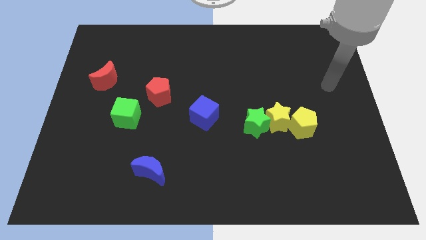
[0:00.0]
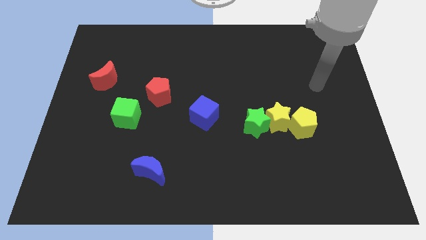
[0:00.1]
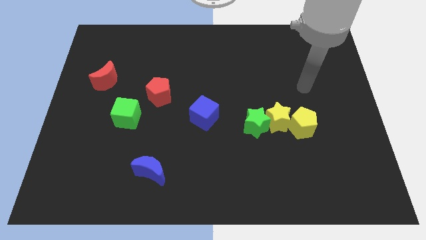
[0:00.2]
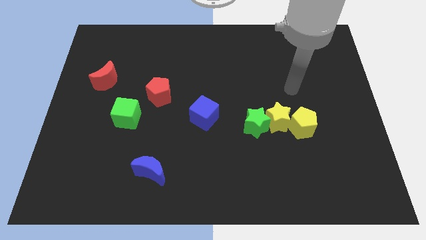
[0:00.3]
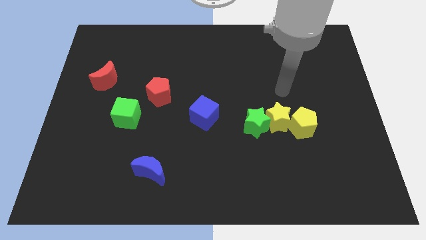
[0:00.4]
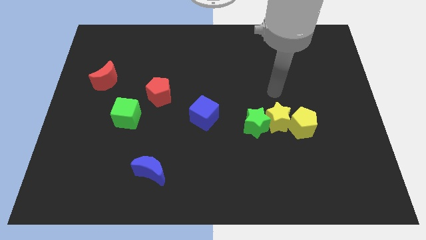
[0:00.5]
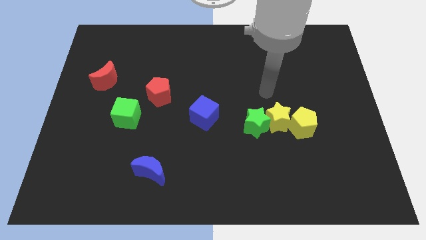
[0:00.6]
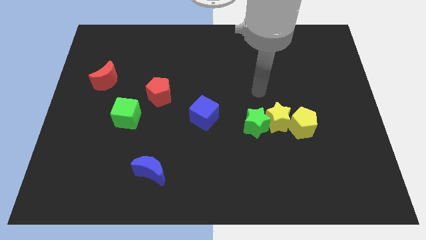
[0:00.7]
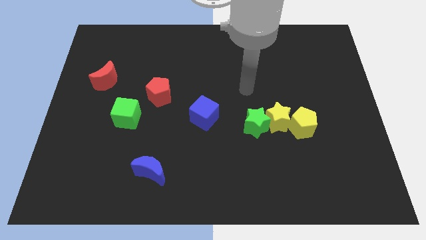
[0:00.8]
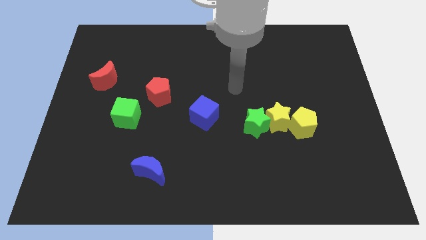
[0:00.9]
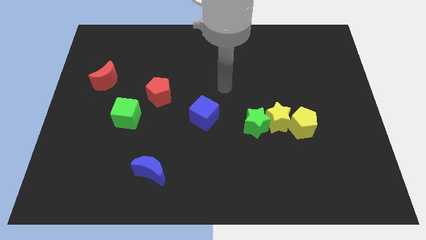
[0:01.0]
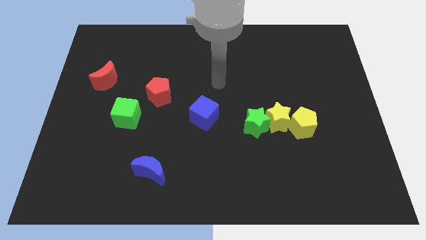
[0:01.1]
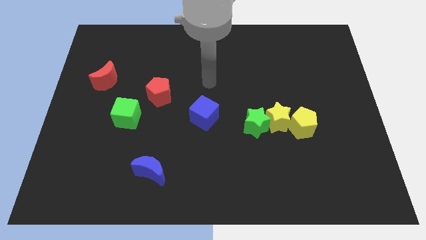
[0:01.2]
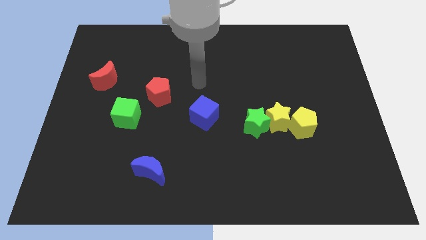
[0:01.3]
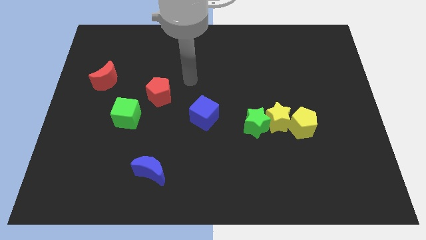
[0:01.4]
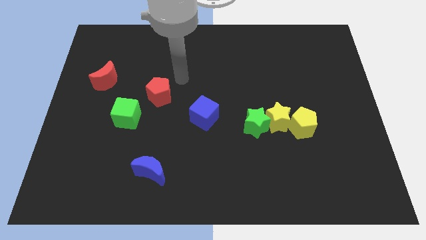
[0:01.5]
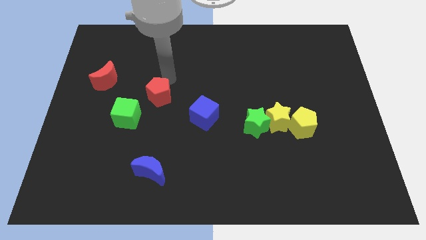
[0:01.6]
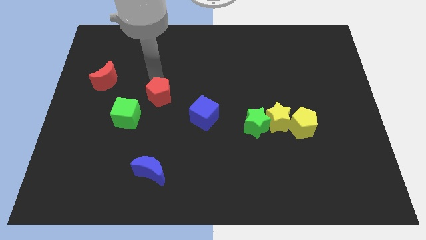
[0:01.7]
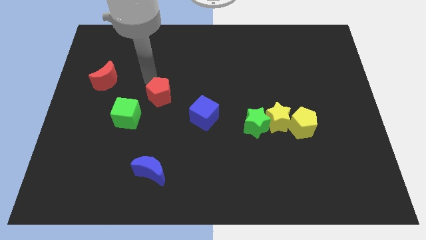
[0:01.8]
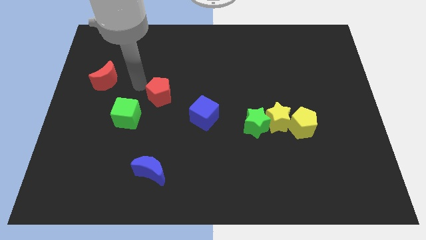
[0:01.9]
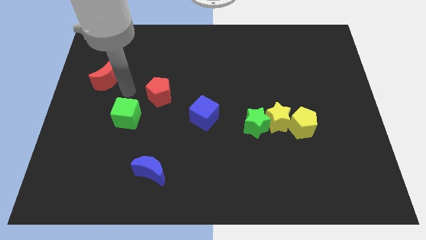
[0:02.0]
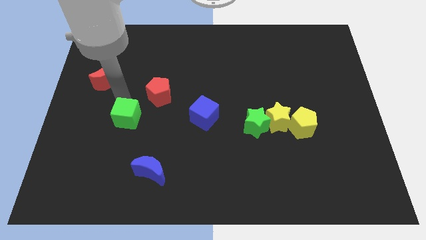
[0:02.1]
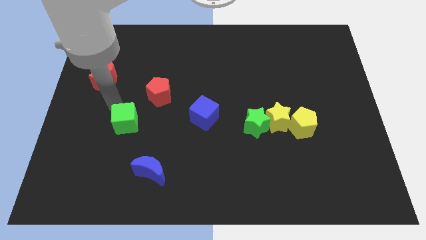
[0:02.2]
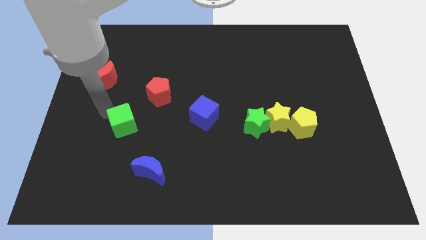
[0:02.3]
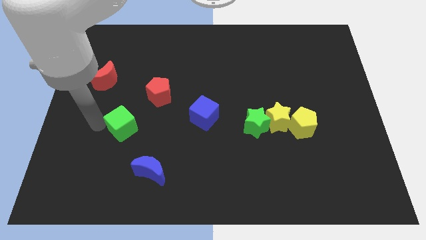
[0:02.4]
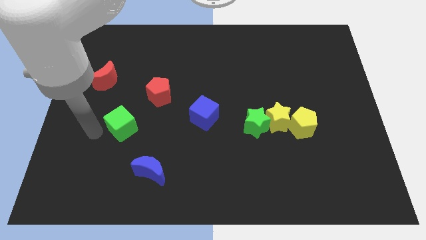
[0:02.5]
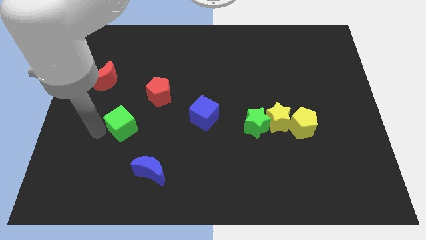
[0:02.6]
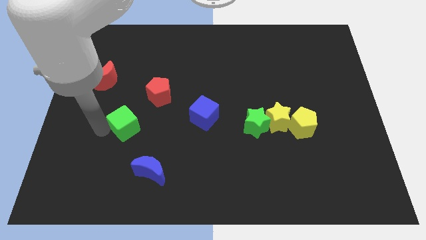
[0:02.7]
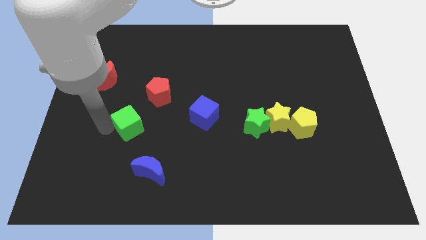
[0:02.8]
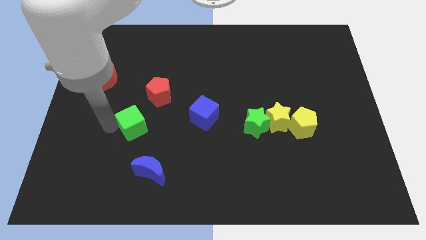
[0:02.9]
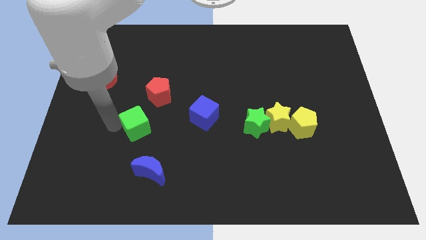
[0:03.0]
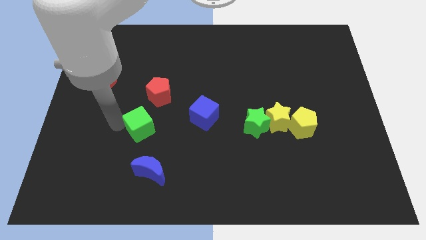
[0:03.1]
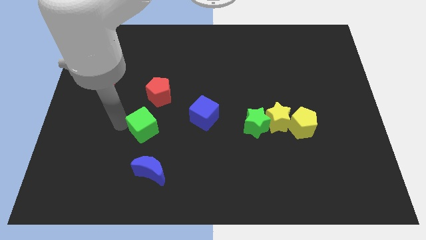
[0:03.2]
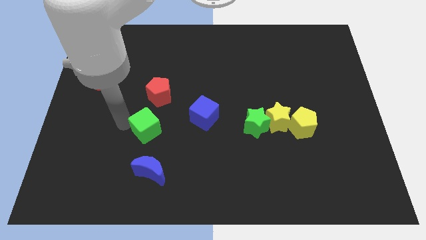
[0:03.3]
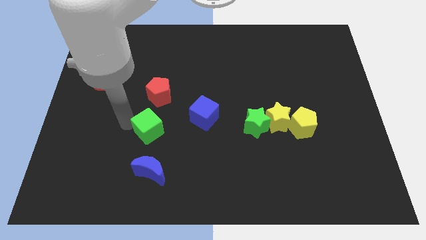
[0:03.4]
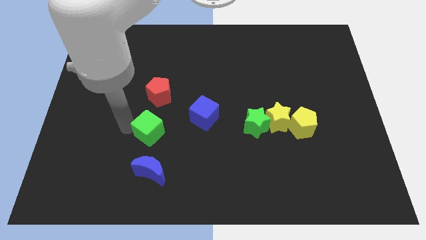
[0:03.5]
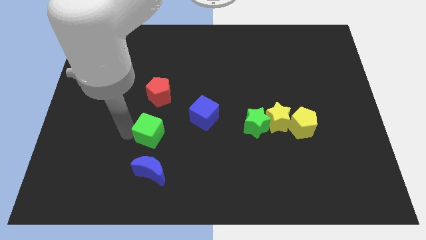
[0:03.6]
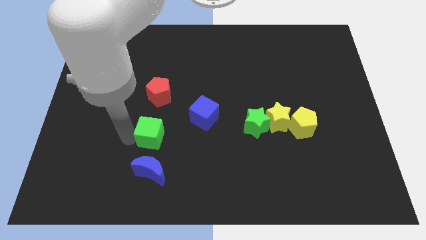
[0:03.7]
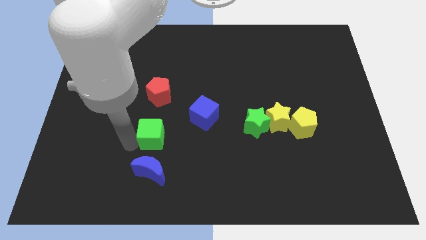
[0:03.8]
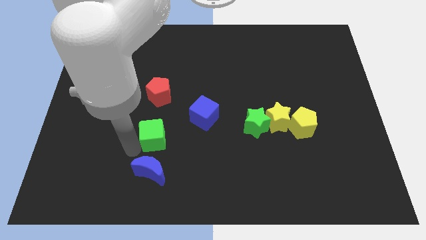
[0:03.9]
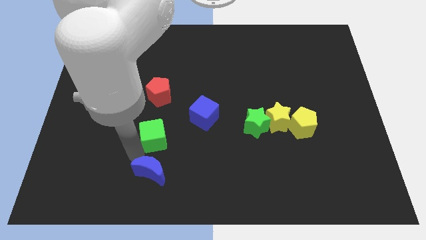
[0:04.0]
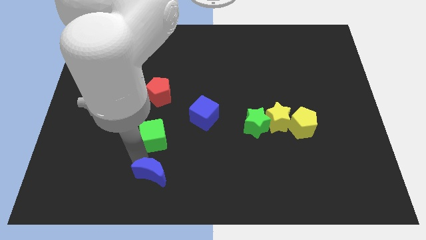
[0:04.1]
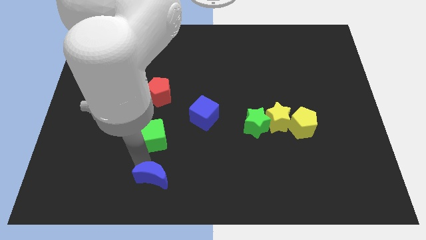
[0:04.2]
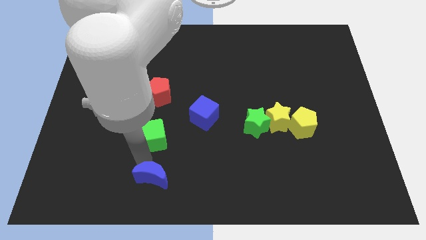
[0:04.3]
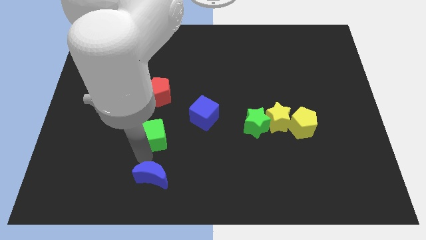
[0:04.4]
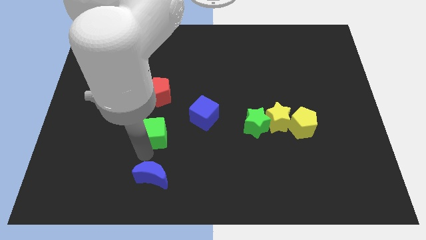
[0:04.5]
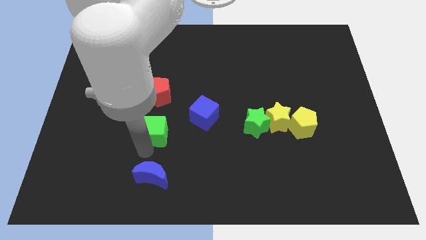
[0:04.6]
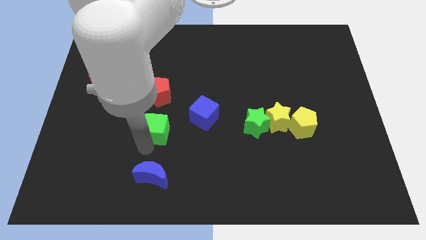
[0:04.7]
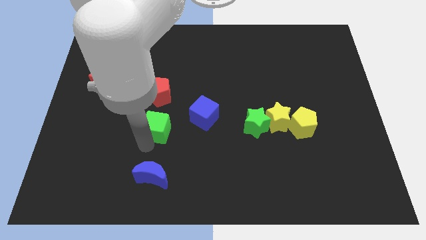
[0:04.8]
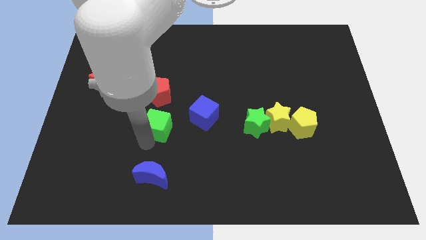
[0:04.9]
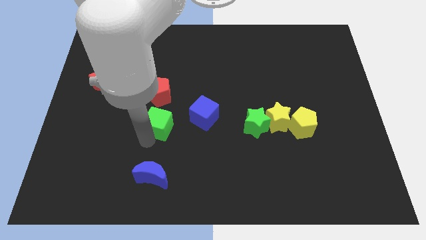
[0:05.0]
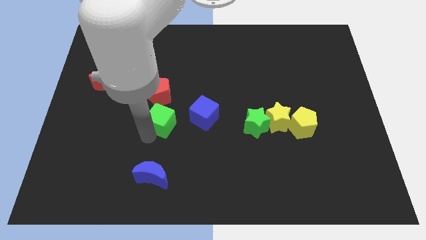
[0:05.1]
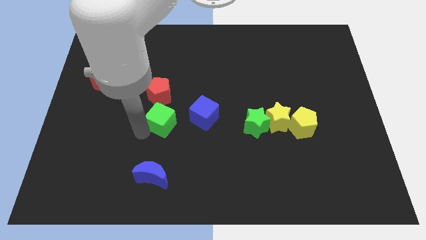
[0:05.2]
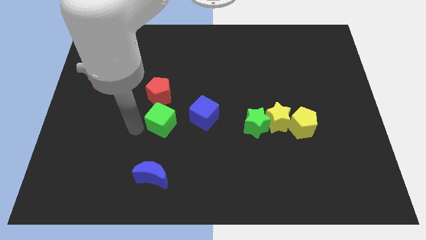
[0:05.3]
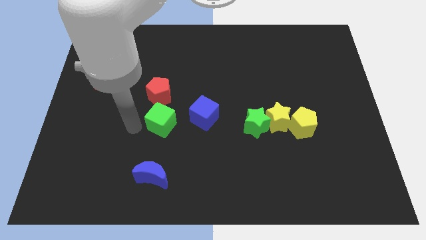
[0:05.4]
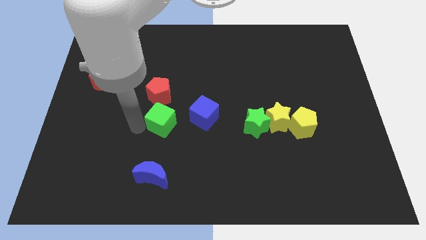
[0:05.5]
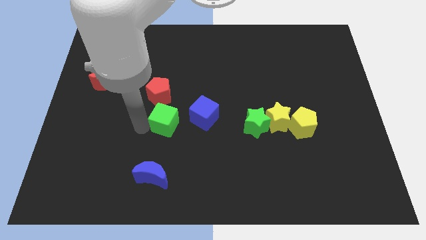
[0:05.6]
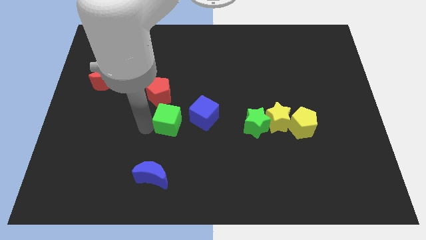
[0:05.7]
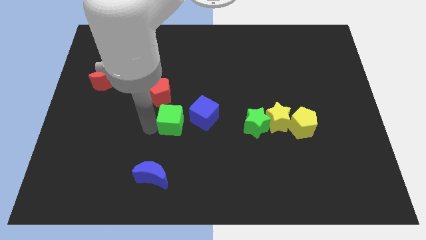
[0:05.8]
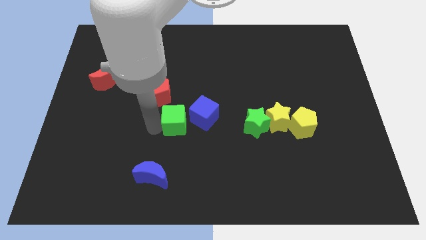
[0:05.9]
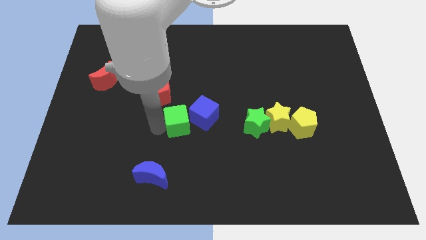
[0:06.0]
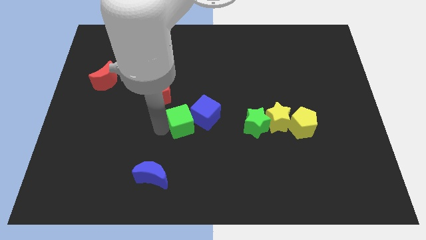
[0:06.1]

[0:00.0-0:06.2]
put the green cube next to the blue cube

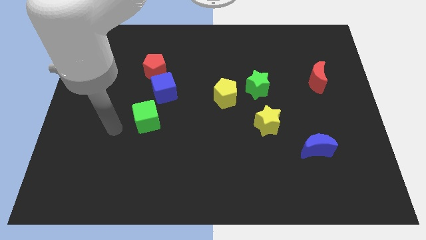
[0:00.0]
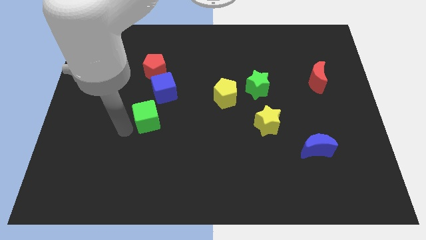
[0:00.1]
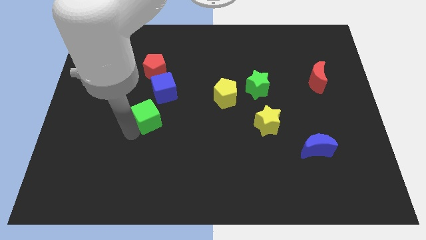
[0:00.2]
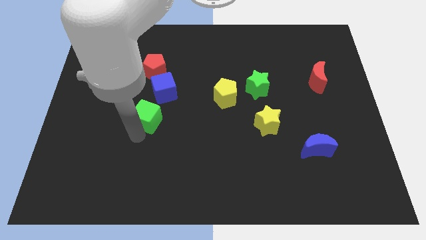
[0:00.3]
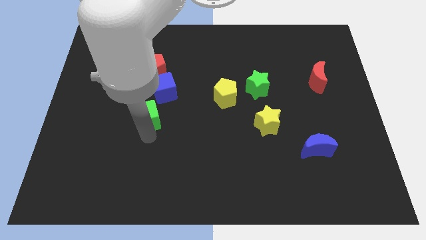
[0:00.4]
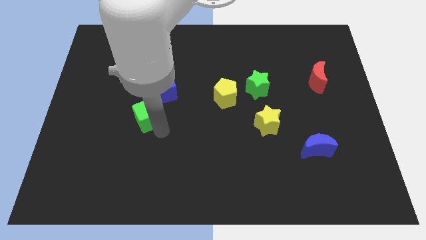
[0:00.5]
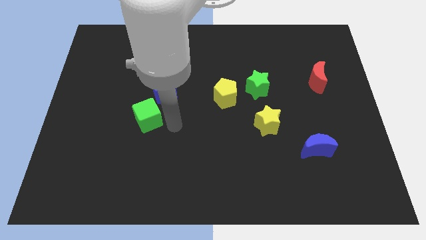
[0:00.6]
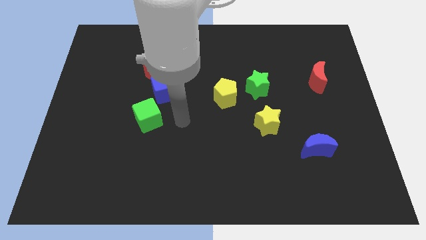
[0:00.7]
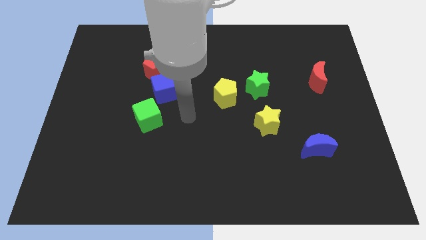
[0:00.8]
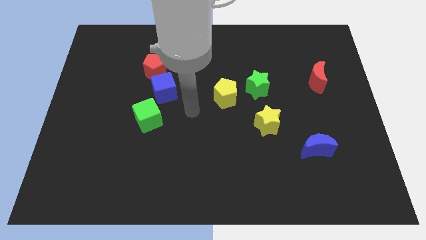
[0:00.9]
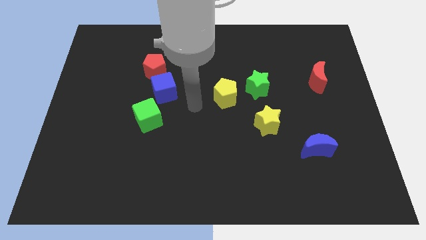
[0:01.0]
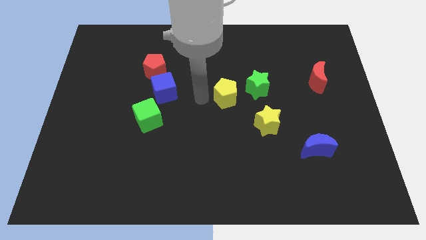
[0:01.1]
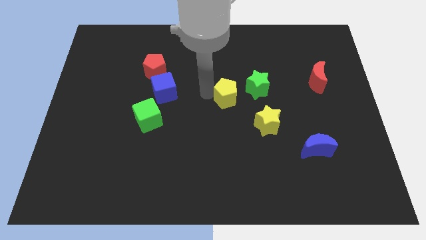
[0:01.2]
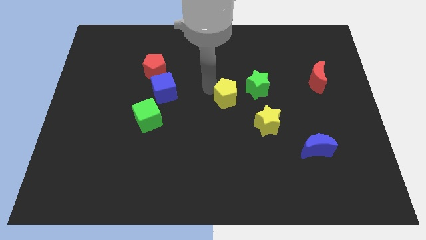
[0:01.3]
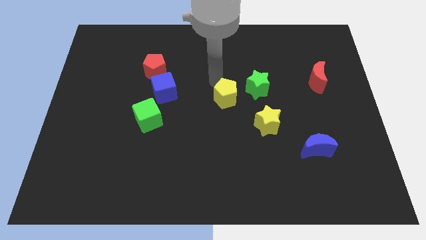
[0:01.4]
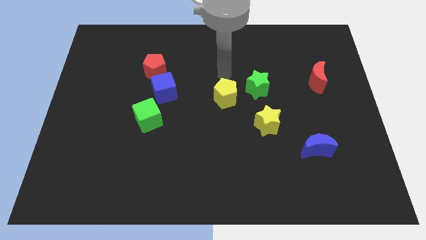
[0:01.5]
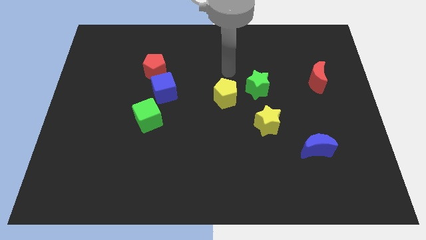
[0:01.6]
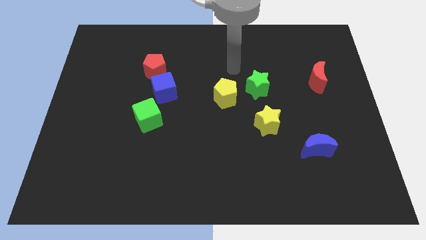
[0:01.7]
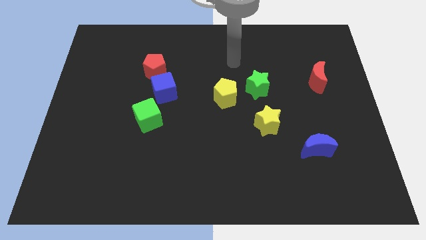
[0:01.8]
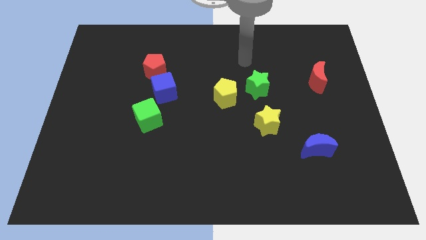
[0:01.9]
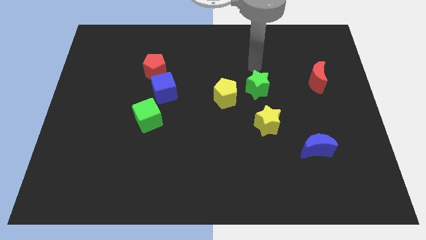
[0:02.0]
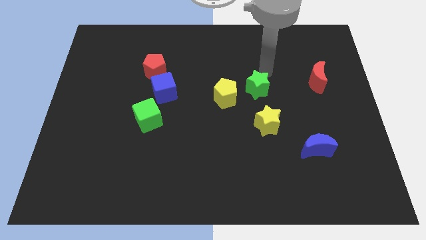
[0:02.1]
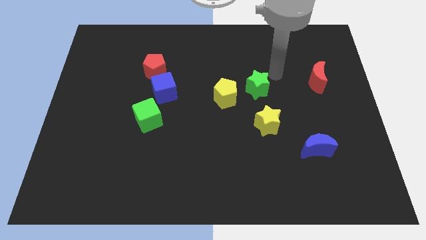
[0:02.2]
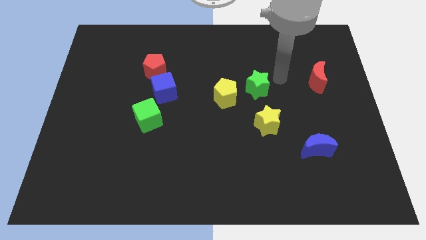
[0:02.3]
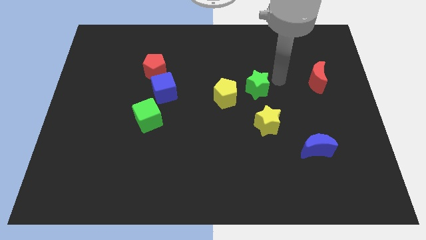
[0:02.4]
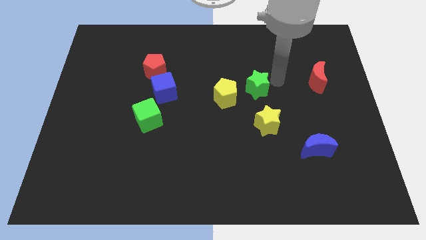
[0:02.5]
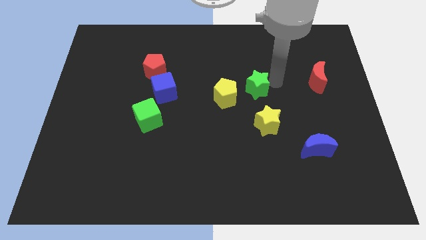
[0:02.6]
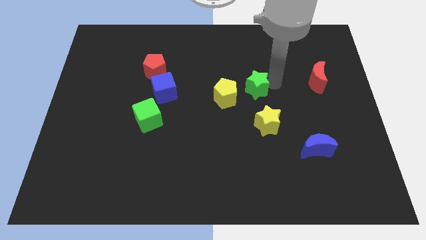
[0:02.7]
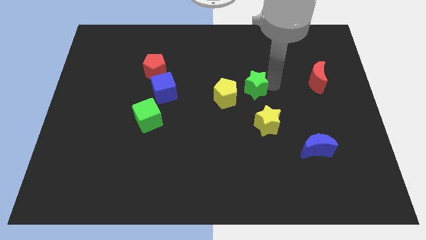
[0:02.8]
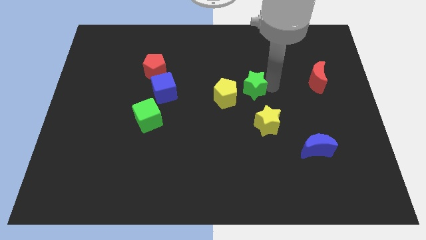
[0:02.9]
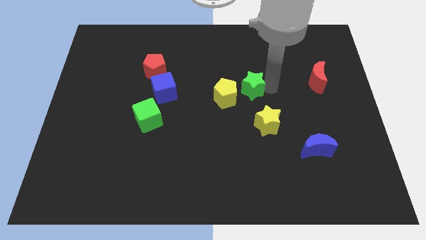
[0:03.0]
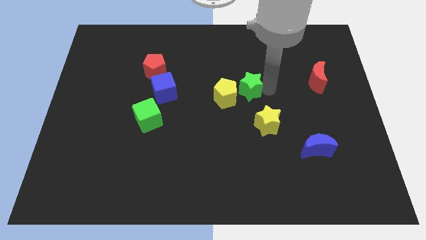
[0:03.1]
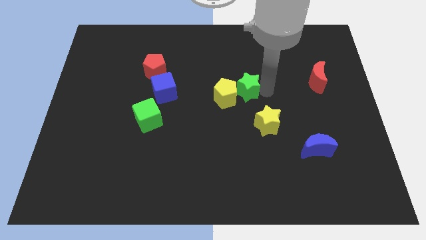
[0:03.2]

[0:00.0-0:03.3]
put the green star close to the yellow pentagon
